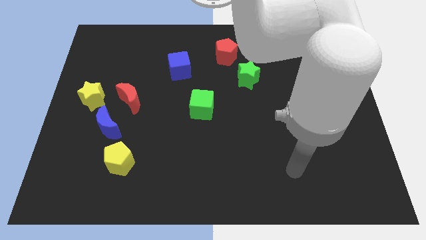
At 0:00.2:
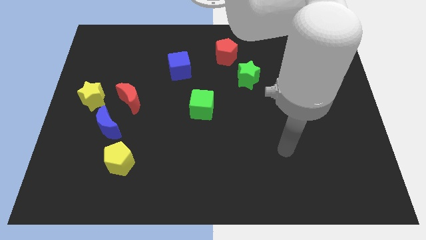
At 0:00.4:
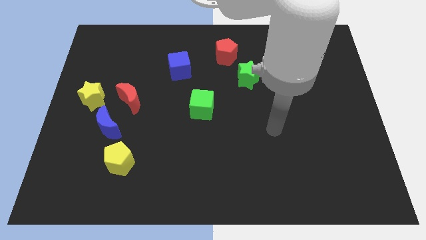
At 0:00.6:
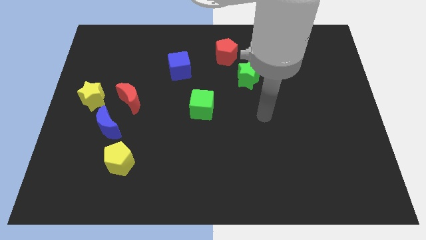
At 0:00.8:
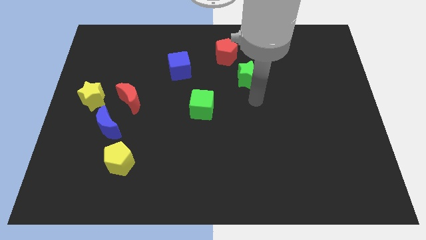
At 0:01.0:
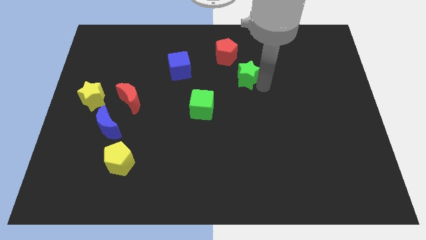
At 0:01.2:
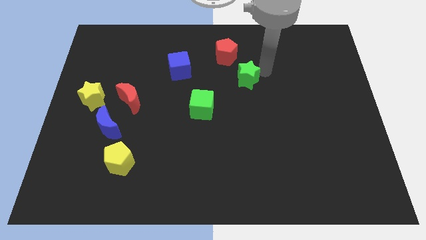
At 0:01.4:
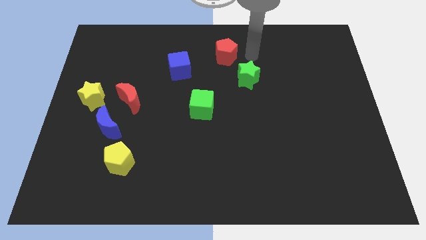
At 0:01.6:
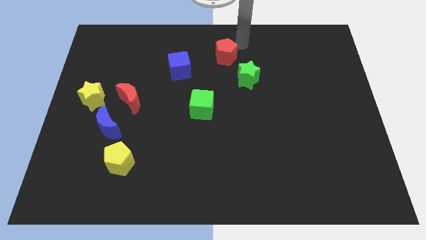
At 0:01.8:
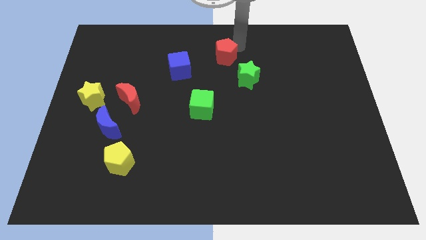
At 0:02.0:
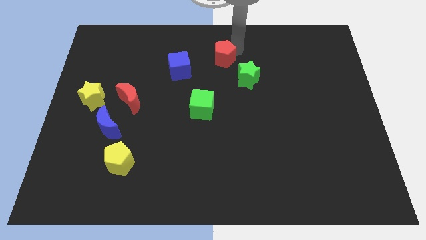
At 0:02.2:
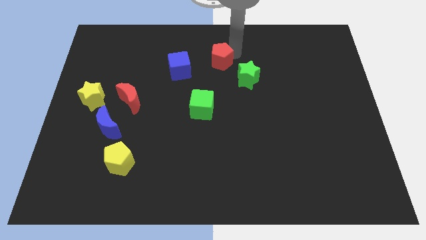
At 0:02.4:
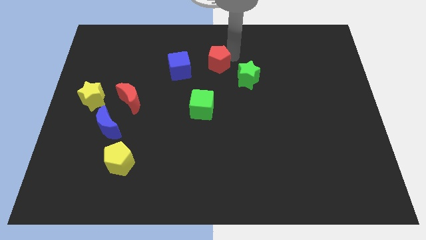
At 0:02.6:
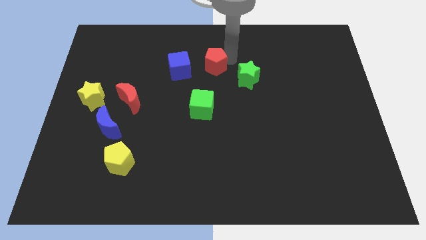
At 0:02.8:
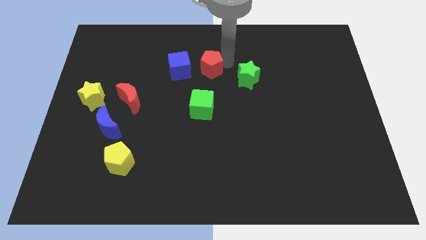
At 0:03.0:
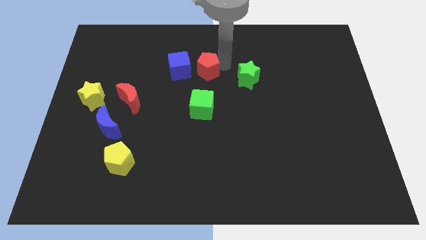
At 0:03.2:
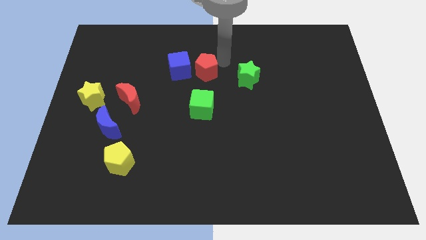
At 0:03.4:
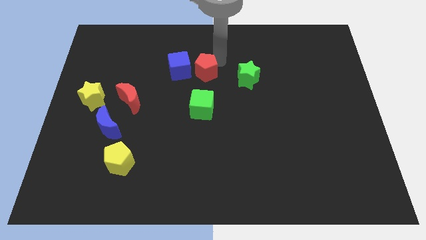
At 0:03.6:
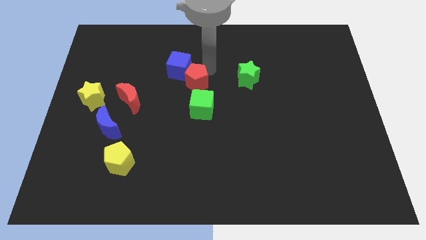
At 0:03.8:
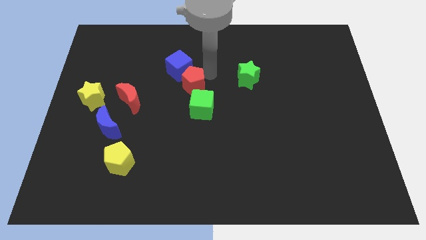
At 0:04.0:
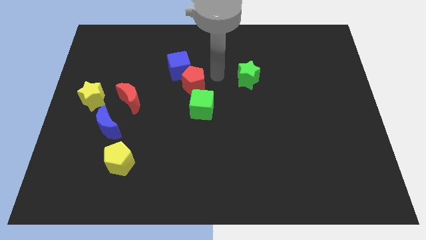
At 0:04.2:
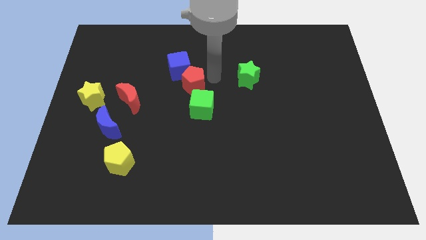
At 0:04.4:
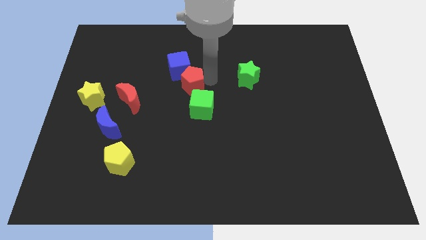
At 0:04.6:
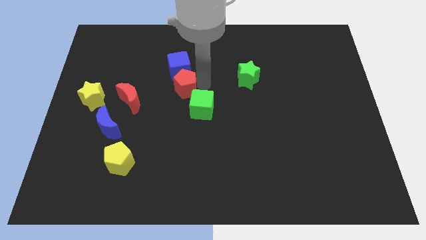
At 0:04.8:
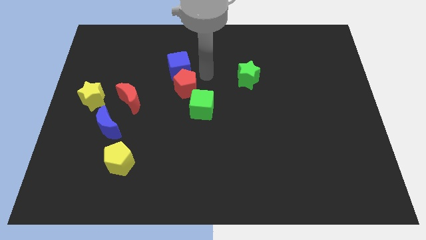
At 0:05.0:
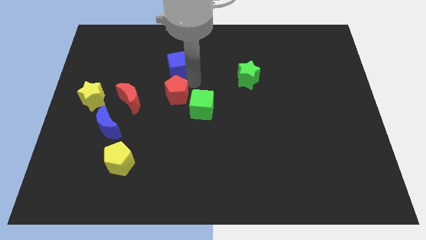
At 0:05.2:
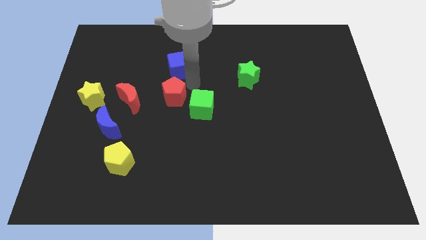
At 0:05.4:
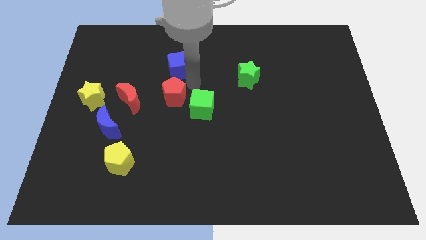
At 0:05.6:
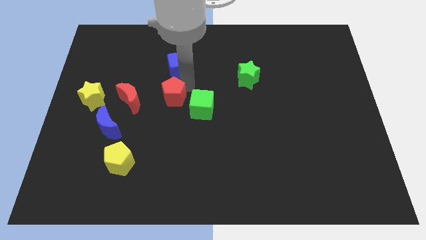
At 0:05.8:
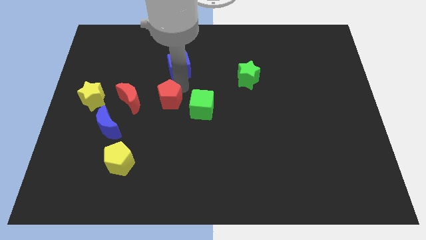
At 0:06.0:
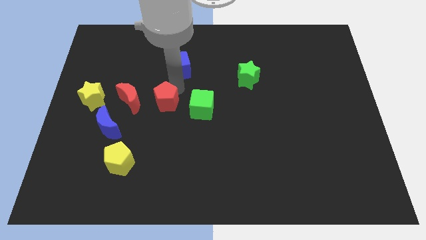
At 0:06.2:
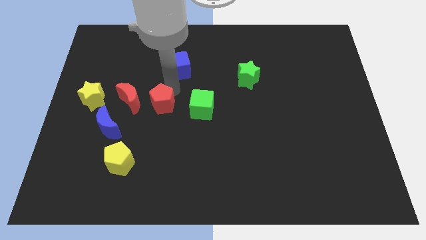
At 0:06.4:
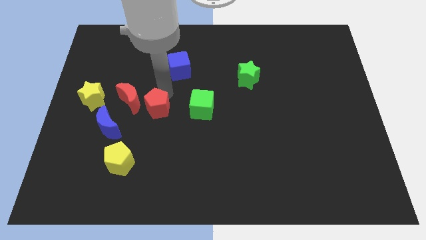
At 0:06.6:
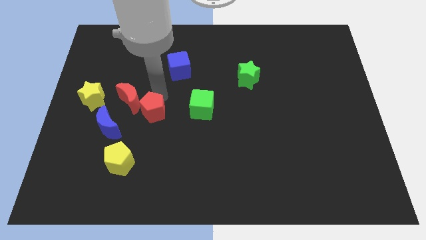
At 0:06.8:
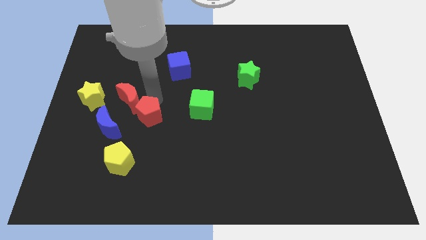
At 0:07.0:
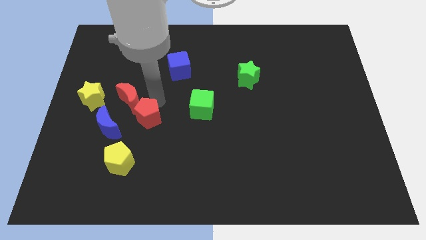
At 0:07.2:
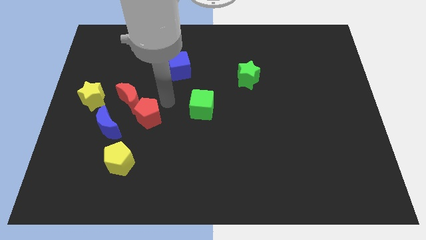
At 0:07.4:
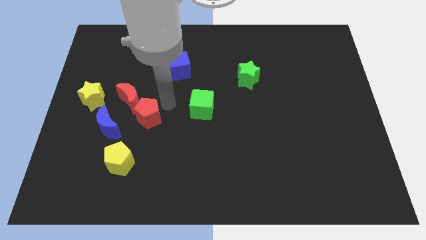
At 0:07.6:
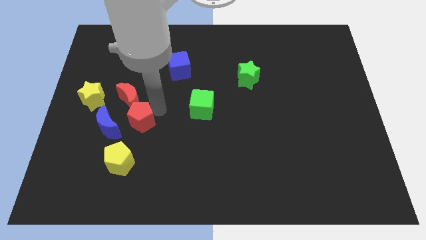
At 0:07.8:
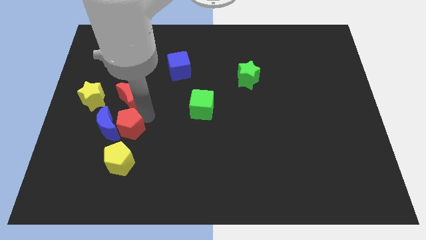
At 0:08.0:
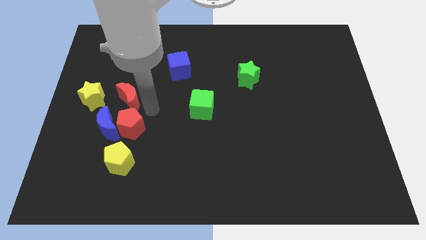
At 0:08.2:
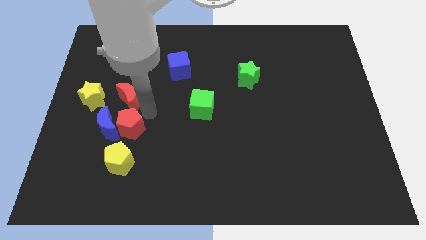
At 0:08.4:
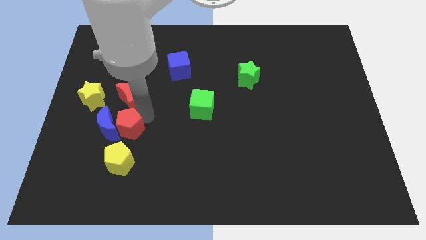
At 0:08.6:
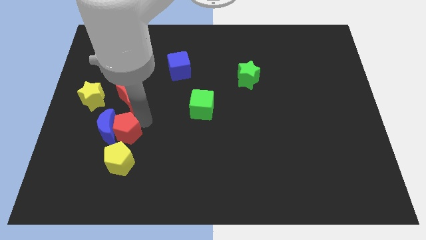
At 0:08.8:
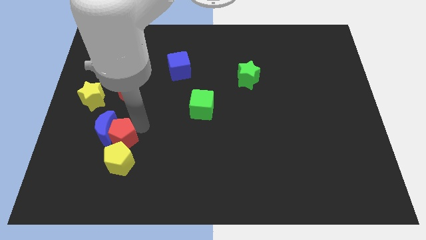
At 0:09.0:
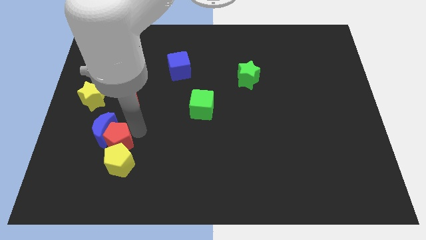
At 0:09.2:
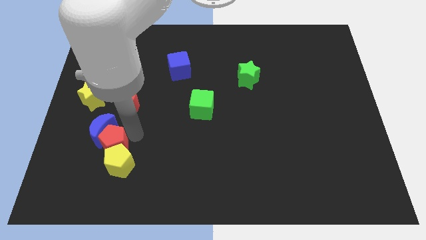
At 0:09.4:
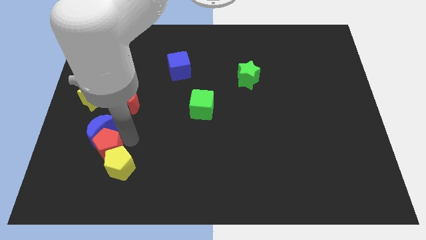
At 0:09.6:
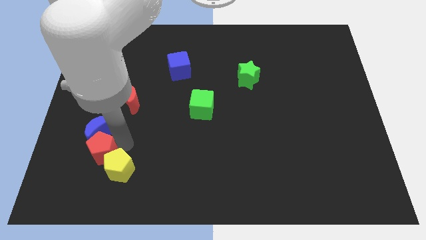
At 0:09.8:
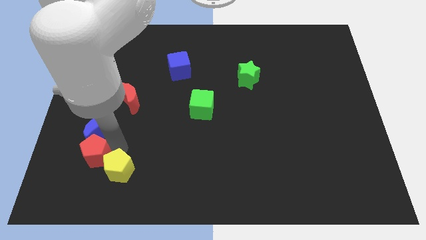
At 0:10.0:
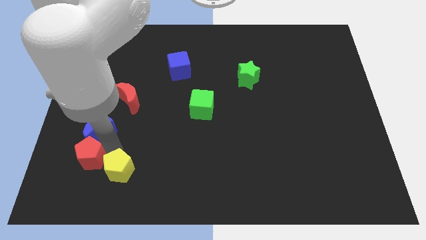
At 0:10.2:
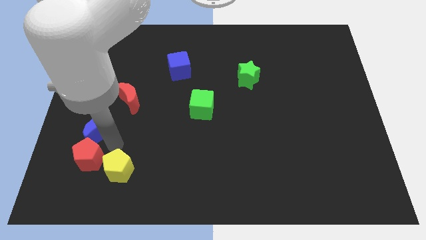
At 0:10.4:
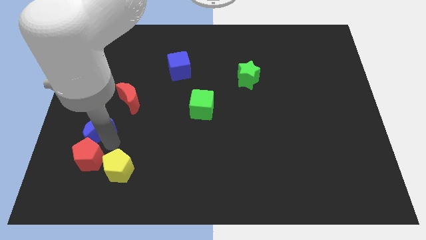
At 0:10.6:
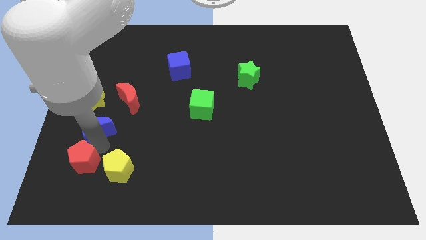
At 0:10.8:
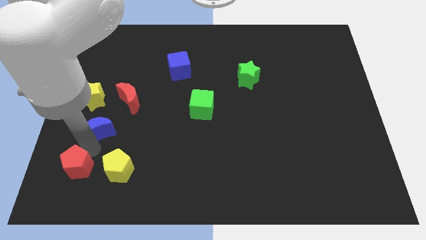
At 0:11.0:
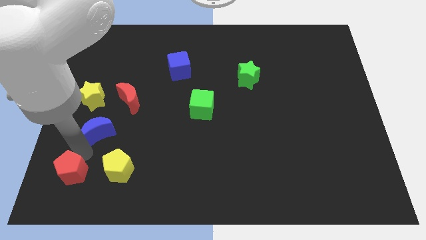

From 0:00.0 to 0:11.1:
move the red pentagon to the bottom left of the board

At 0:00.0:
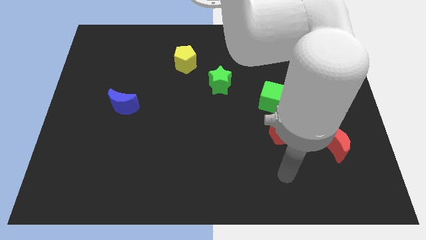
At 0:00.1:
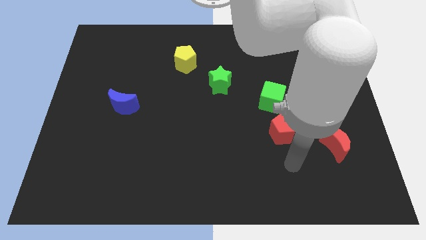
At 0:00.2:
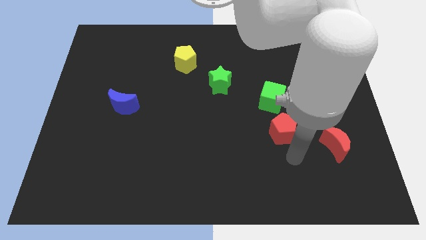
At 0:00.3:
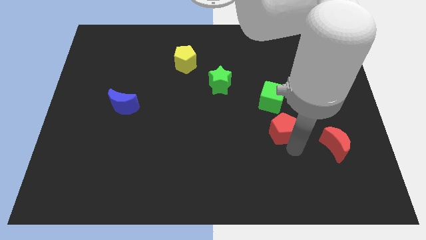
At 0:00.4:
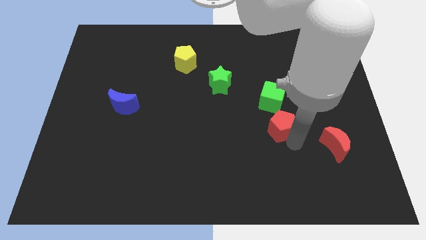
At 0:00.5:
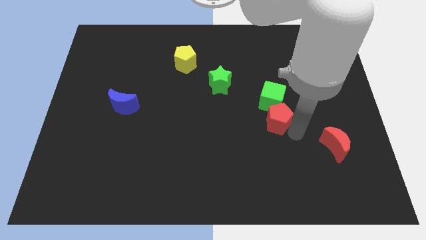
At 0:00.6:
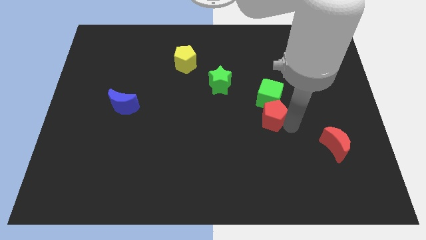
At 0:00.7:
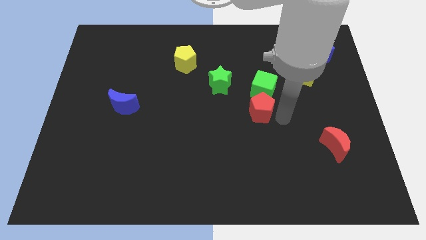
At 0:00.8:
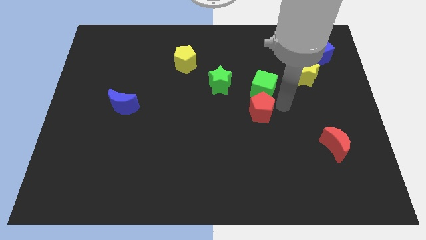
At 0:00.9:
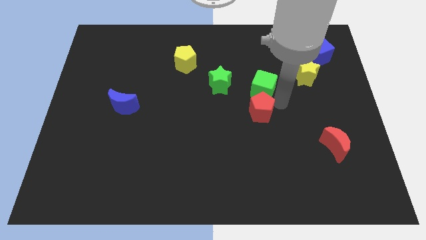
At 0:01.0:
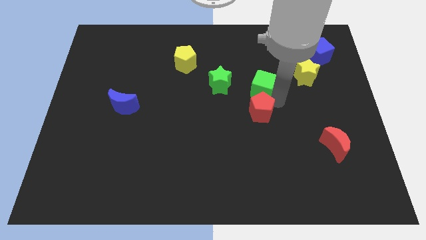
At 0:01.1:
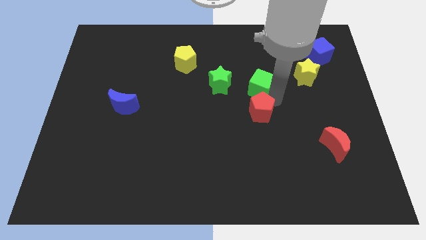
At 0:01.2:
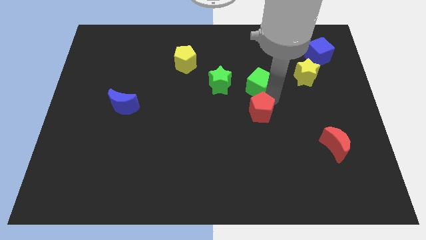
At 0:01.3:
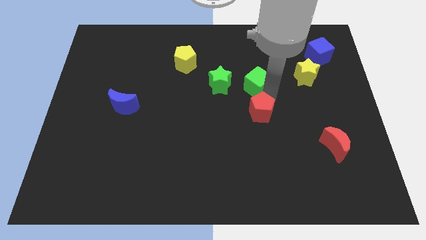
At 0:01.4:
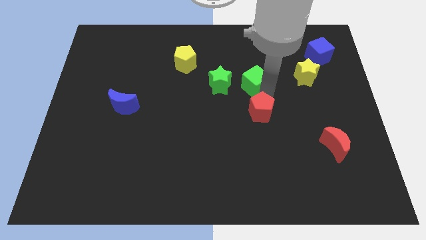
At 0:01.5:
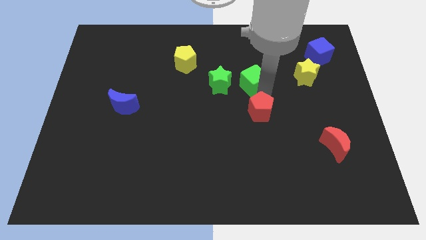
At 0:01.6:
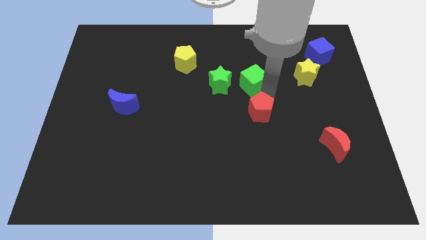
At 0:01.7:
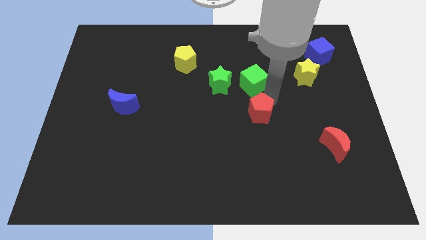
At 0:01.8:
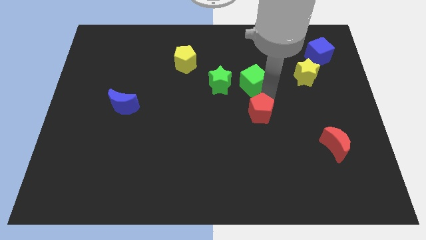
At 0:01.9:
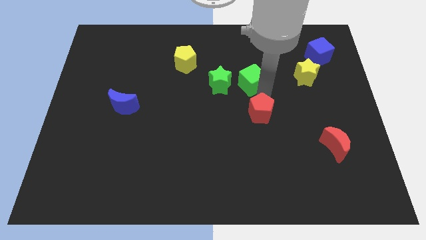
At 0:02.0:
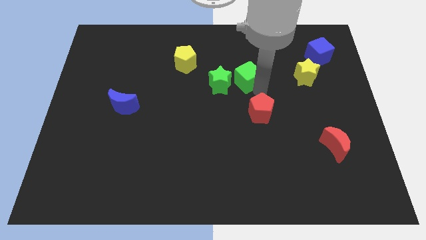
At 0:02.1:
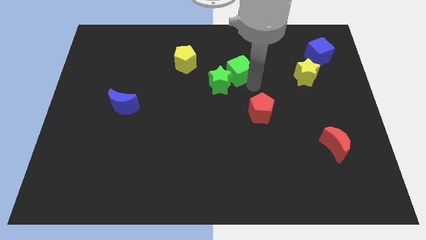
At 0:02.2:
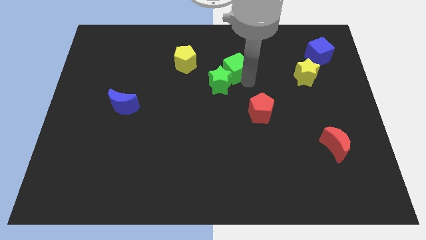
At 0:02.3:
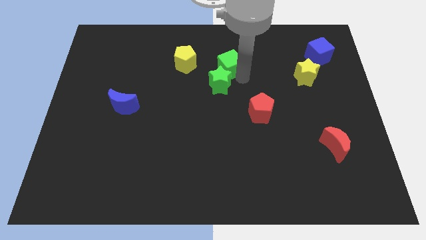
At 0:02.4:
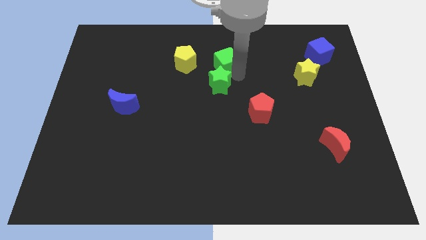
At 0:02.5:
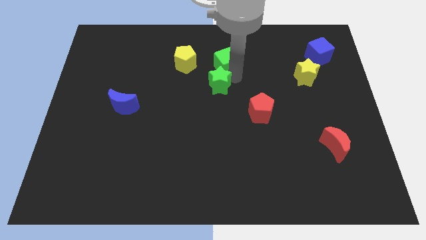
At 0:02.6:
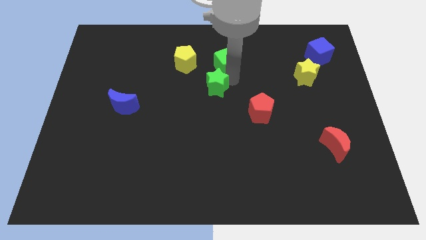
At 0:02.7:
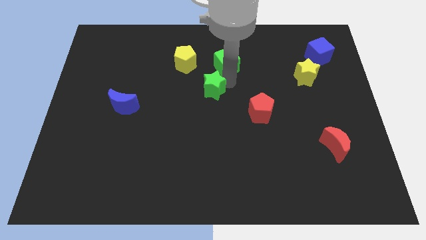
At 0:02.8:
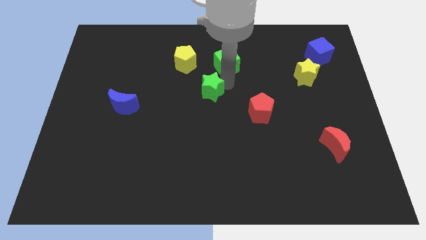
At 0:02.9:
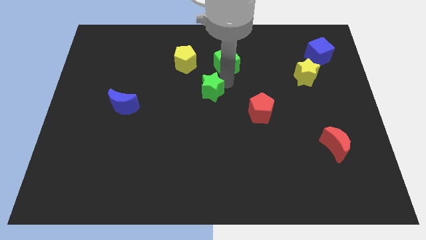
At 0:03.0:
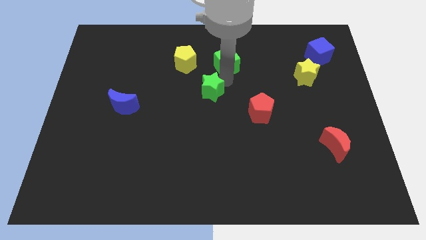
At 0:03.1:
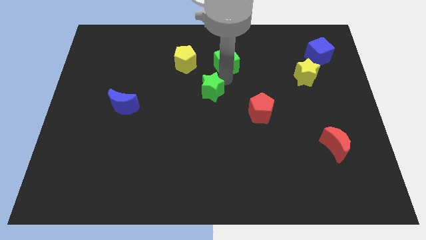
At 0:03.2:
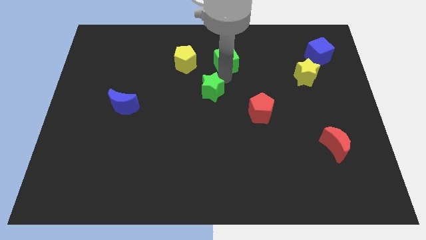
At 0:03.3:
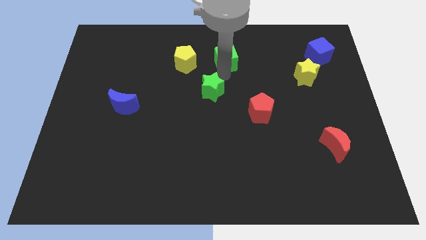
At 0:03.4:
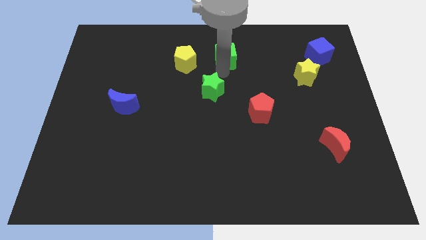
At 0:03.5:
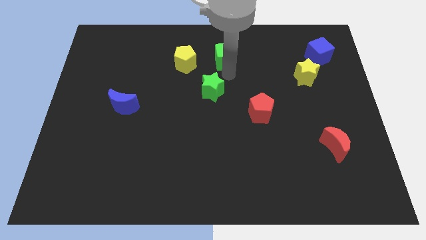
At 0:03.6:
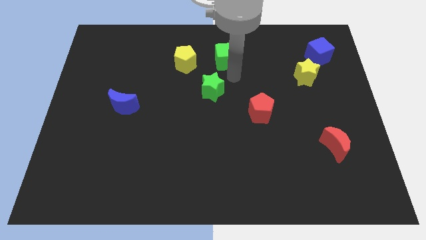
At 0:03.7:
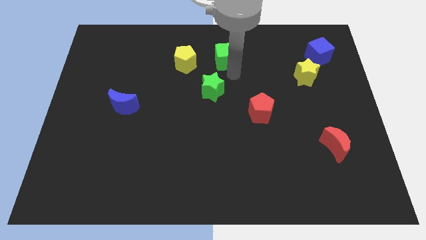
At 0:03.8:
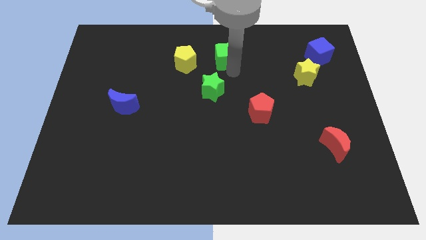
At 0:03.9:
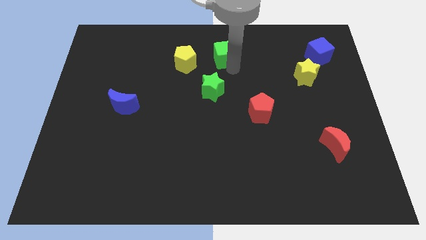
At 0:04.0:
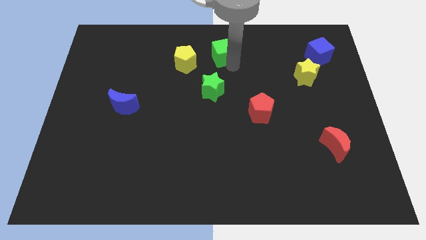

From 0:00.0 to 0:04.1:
push the green cube to the top side
